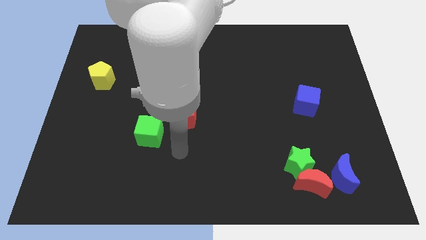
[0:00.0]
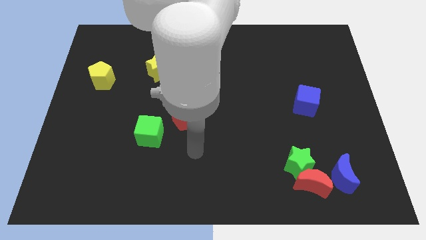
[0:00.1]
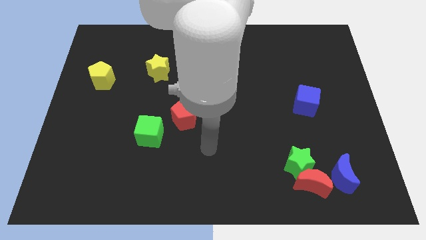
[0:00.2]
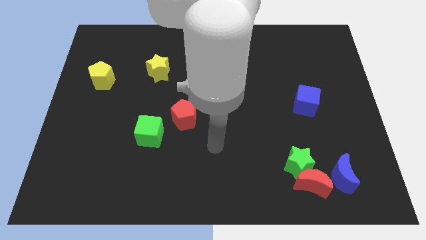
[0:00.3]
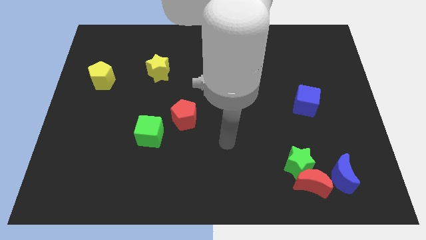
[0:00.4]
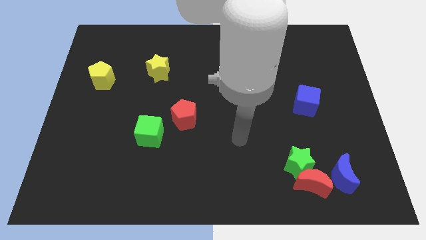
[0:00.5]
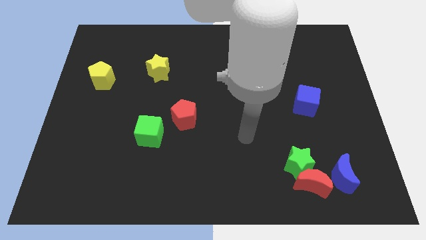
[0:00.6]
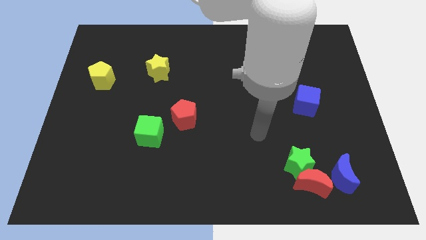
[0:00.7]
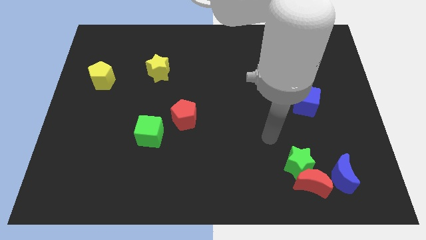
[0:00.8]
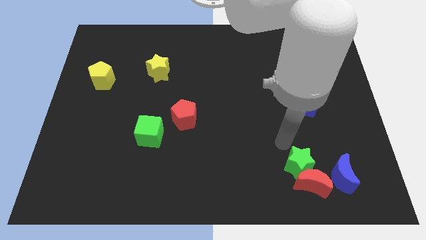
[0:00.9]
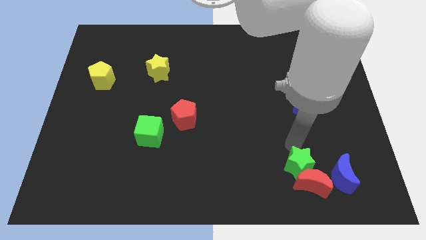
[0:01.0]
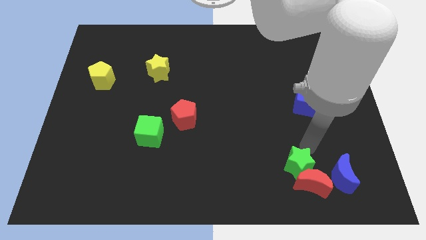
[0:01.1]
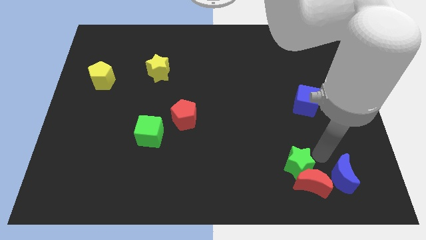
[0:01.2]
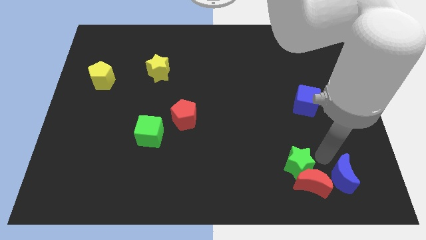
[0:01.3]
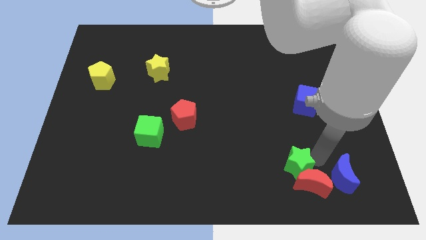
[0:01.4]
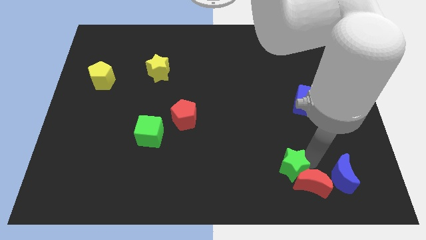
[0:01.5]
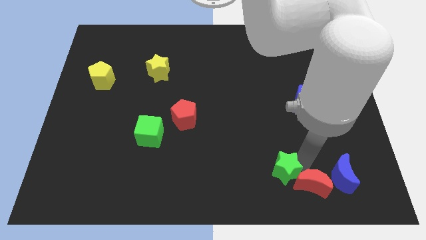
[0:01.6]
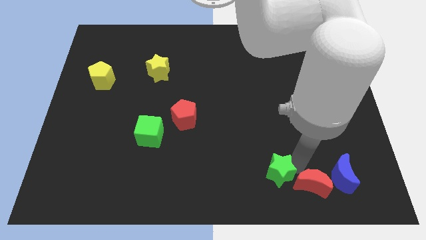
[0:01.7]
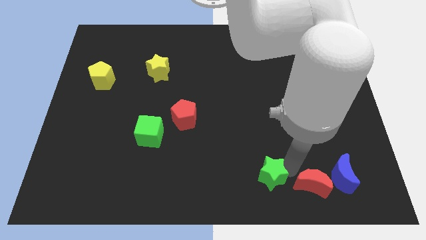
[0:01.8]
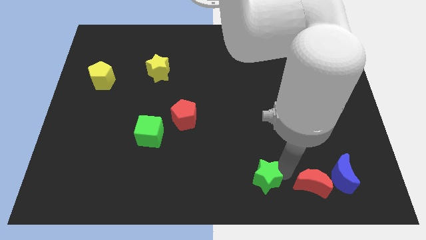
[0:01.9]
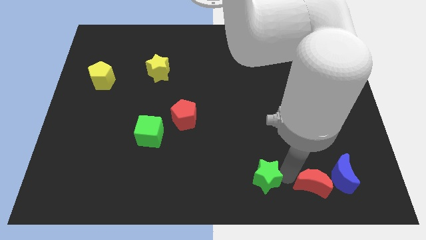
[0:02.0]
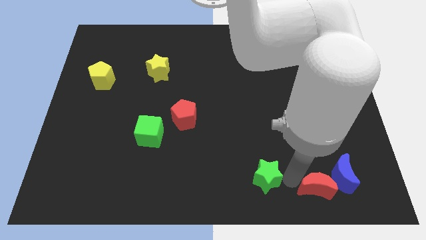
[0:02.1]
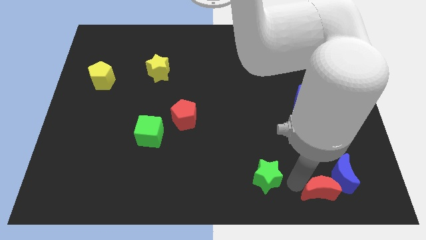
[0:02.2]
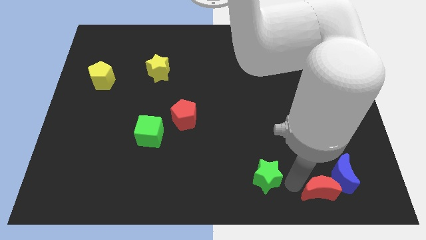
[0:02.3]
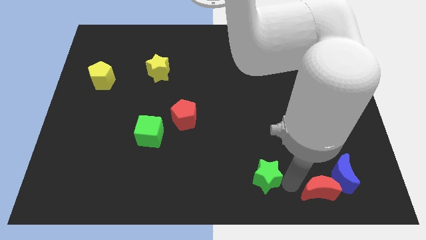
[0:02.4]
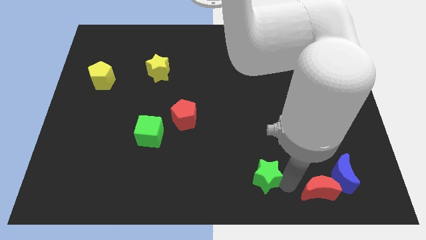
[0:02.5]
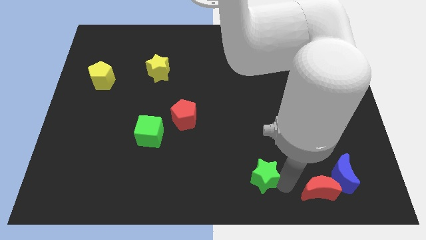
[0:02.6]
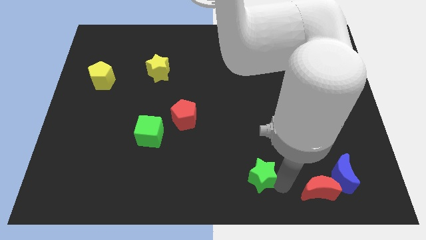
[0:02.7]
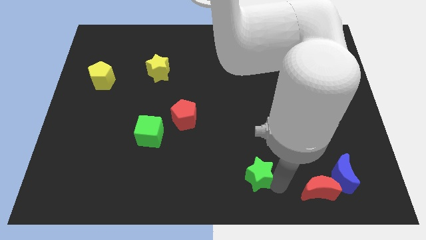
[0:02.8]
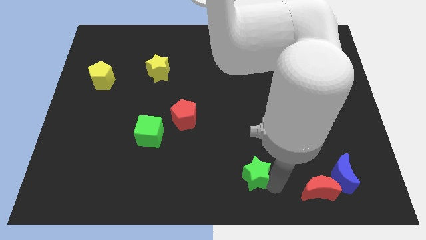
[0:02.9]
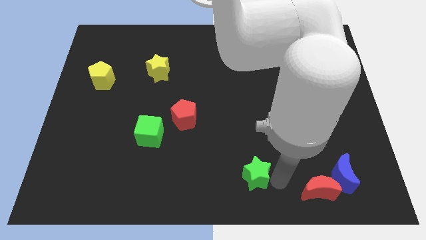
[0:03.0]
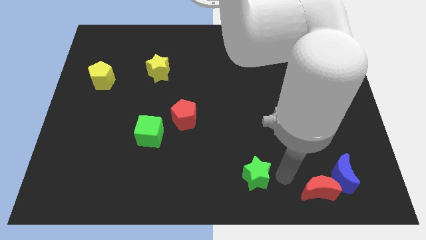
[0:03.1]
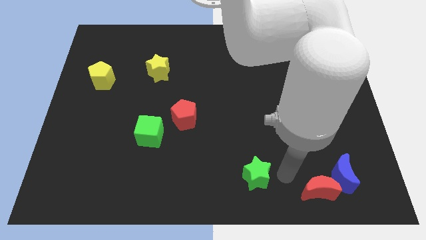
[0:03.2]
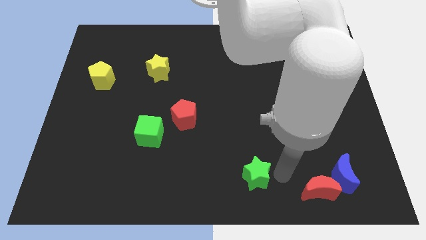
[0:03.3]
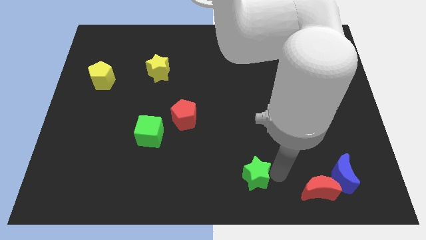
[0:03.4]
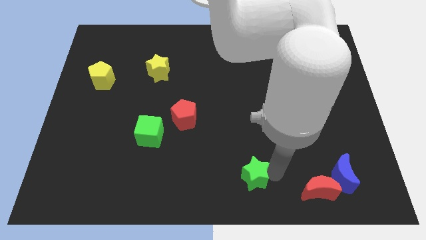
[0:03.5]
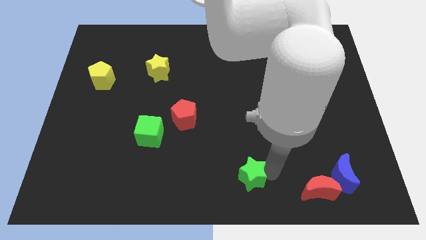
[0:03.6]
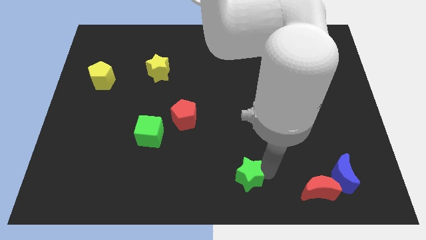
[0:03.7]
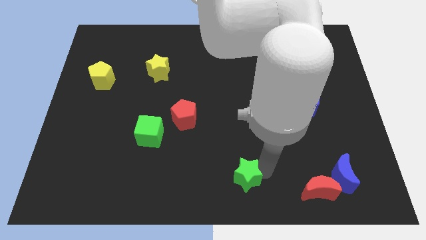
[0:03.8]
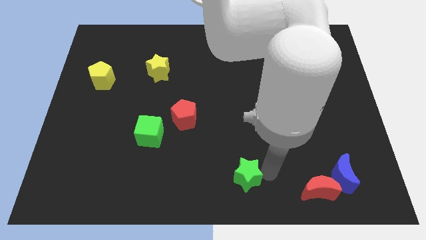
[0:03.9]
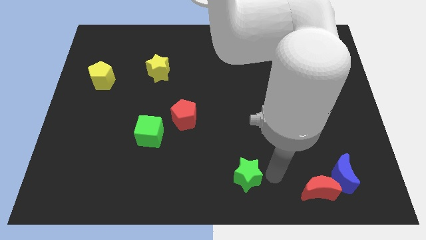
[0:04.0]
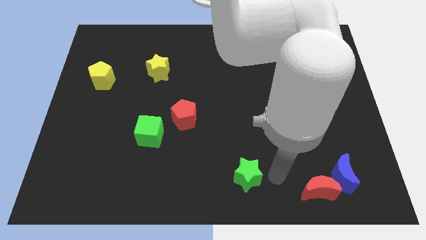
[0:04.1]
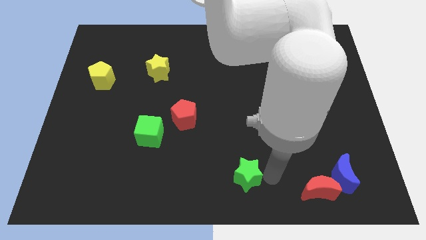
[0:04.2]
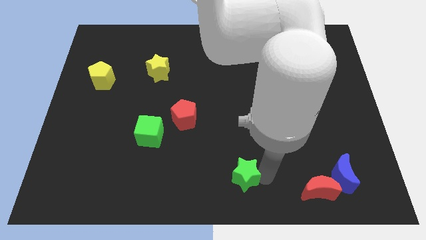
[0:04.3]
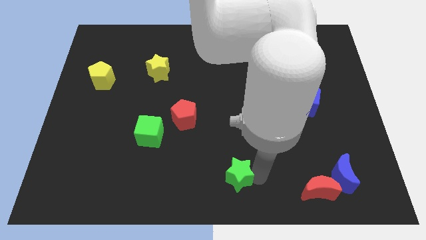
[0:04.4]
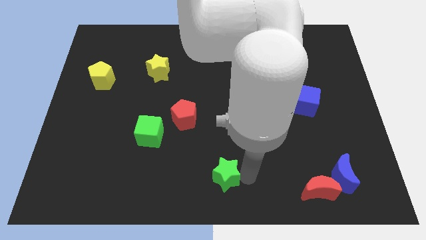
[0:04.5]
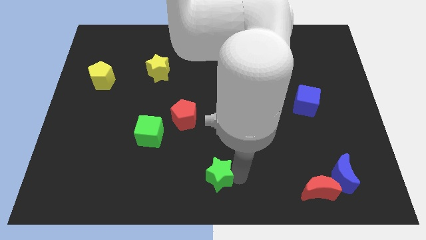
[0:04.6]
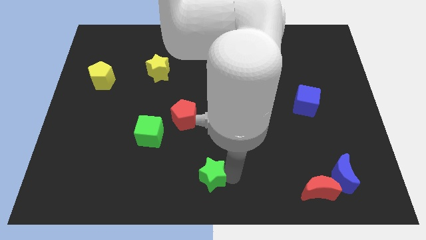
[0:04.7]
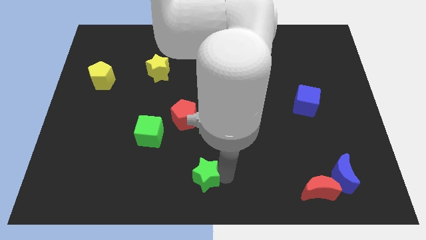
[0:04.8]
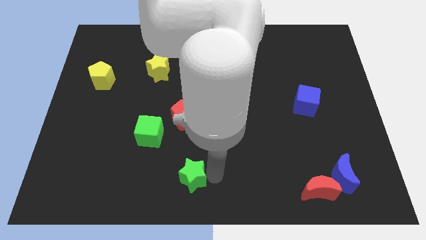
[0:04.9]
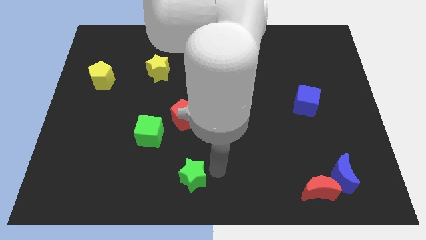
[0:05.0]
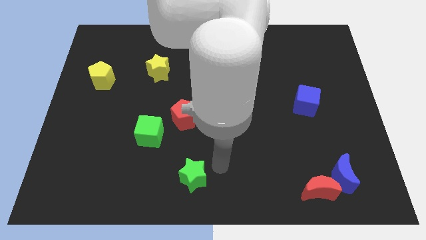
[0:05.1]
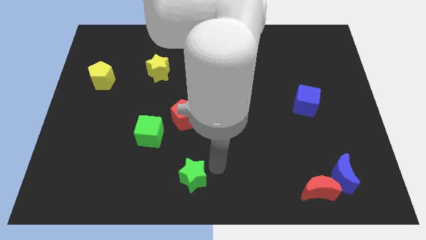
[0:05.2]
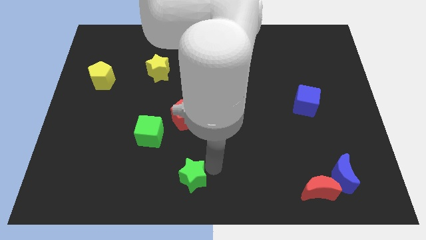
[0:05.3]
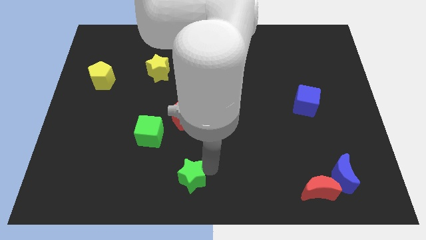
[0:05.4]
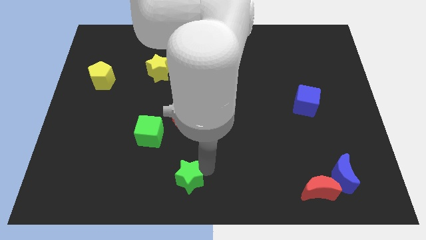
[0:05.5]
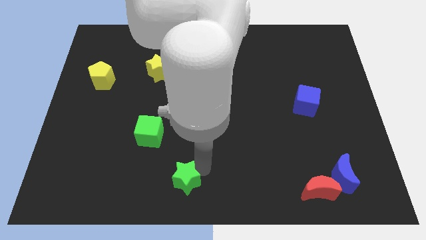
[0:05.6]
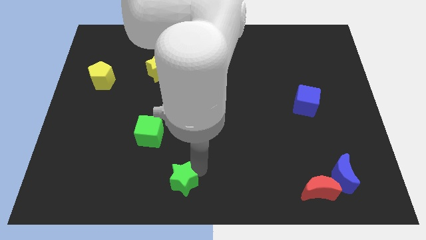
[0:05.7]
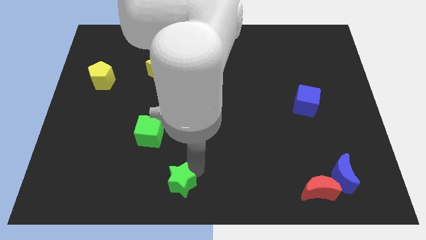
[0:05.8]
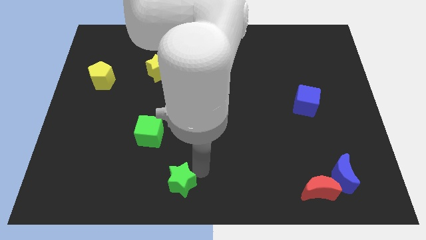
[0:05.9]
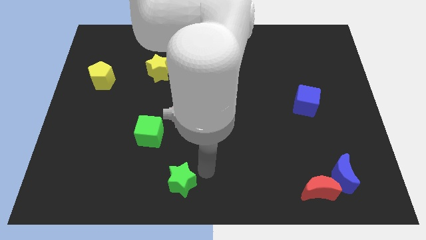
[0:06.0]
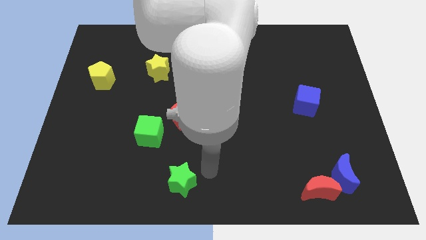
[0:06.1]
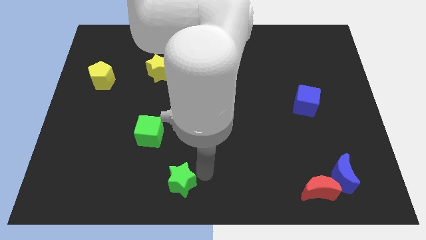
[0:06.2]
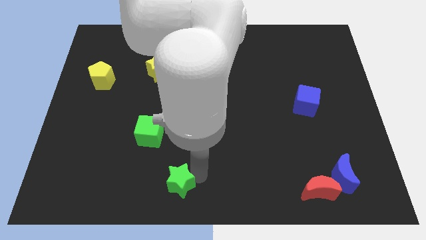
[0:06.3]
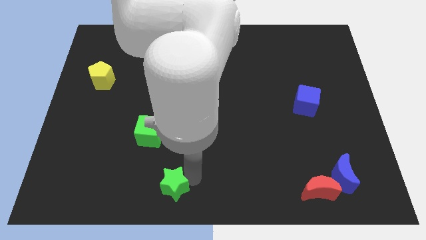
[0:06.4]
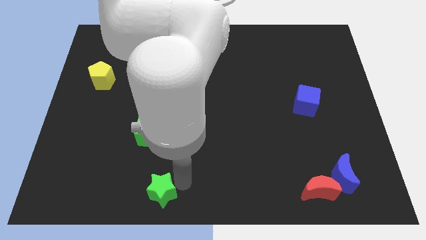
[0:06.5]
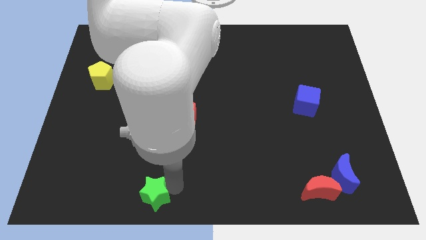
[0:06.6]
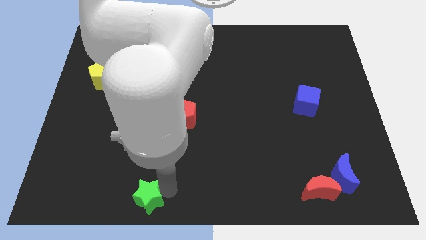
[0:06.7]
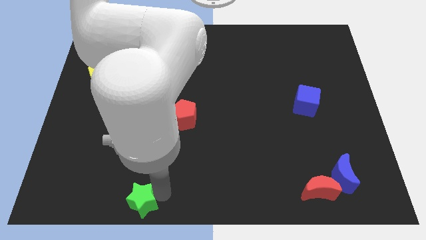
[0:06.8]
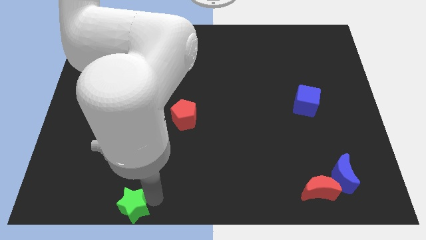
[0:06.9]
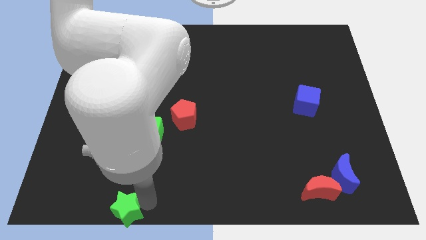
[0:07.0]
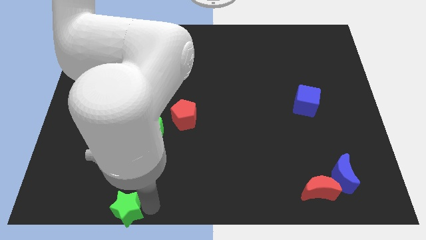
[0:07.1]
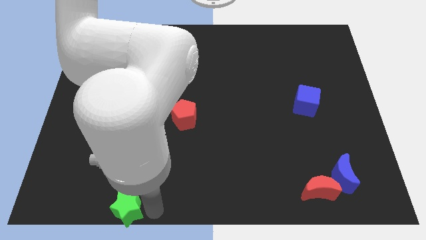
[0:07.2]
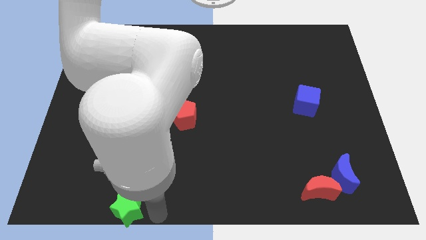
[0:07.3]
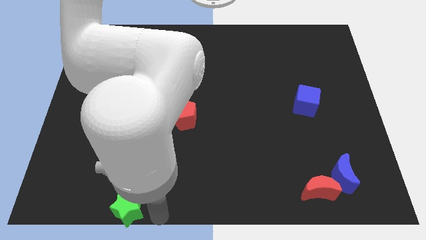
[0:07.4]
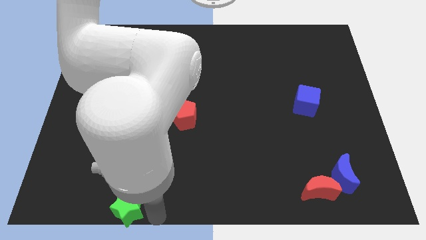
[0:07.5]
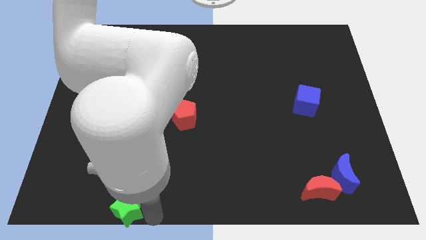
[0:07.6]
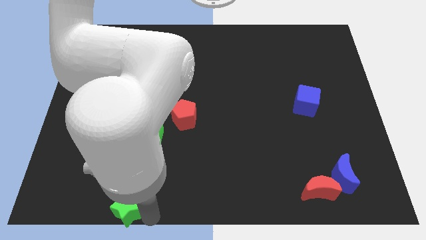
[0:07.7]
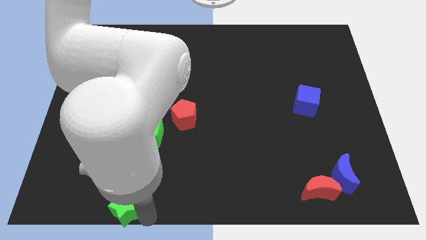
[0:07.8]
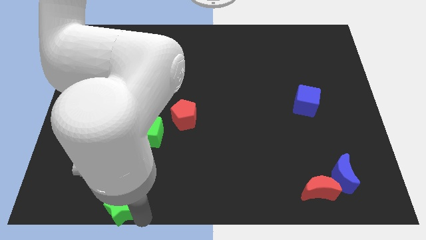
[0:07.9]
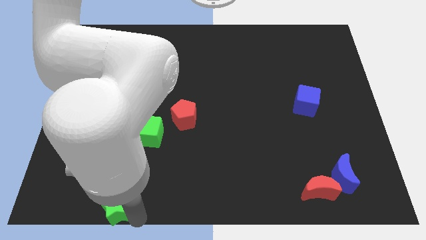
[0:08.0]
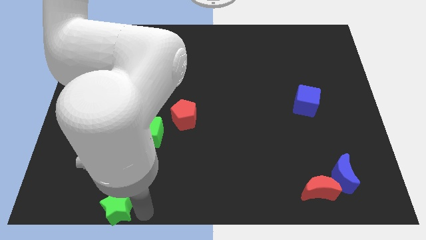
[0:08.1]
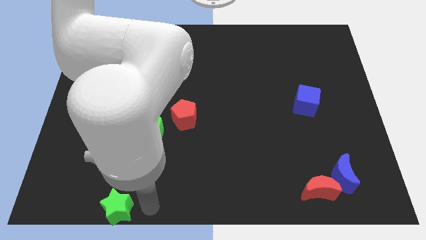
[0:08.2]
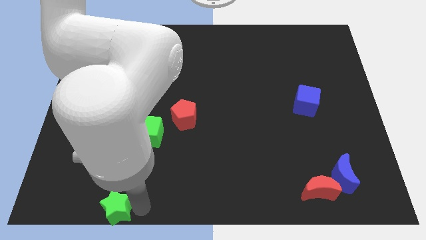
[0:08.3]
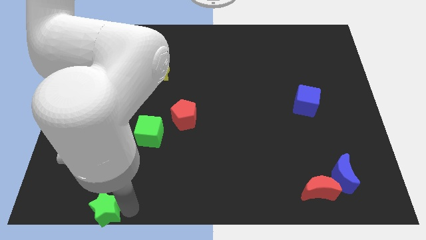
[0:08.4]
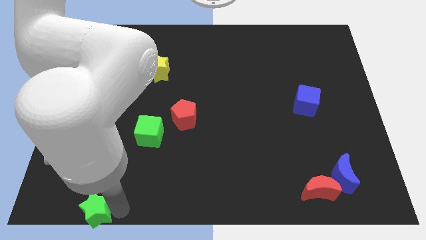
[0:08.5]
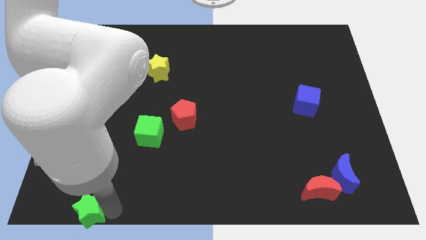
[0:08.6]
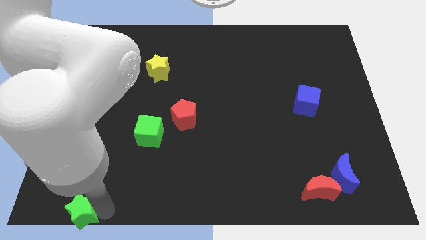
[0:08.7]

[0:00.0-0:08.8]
put the green star to the bottom left
